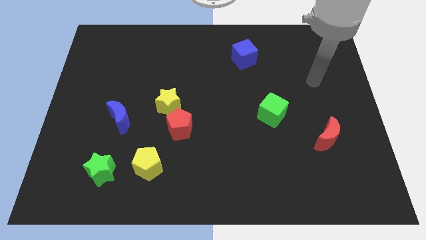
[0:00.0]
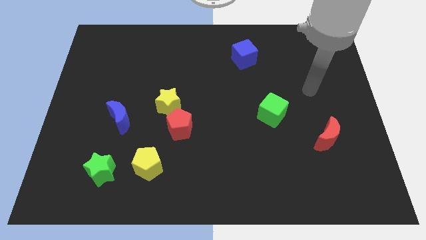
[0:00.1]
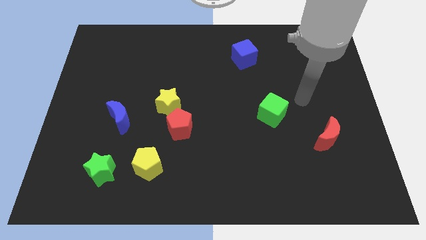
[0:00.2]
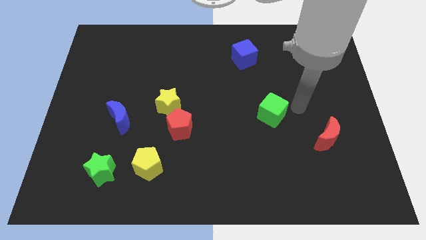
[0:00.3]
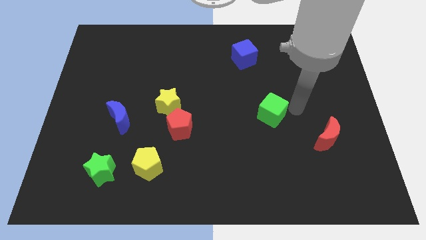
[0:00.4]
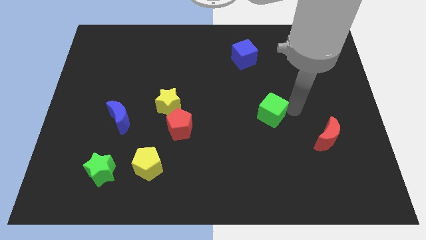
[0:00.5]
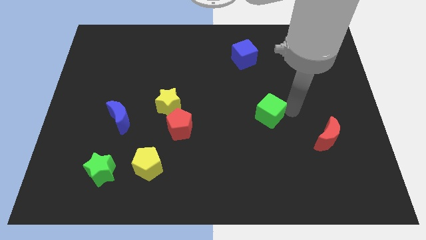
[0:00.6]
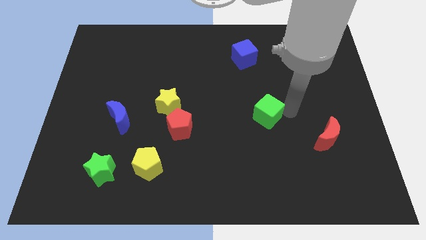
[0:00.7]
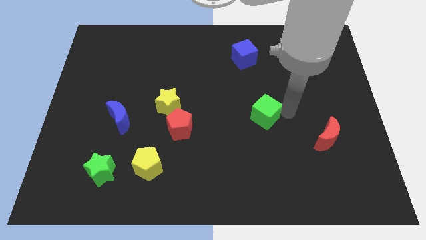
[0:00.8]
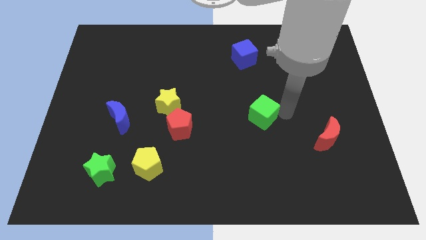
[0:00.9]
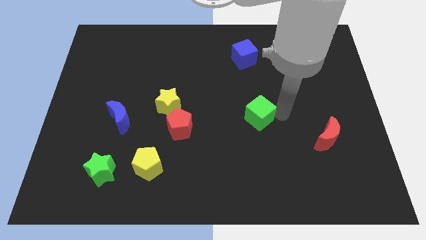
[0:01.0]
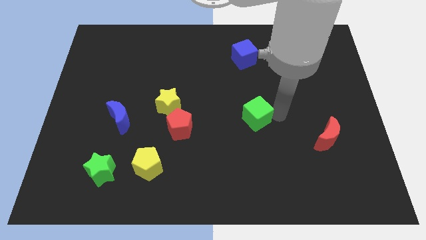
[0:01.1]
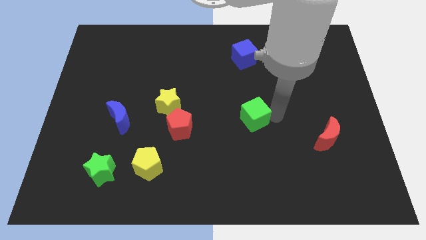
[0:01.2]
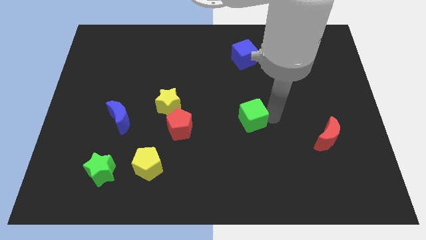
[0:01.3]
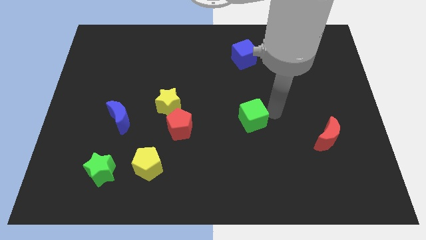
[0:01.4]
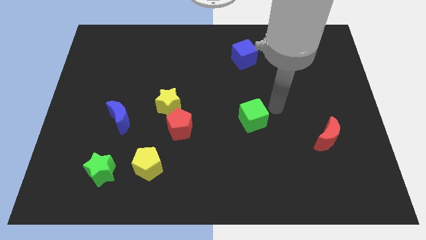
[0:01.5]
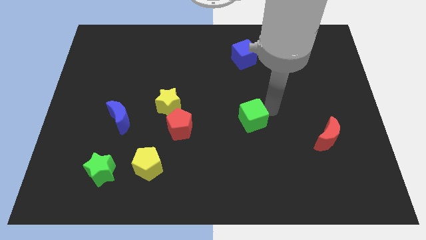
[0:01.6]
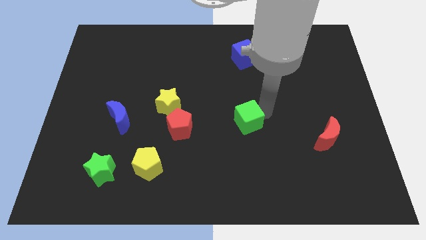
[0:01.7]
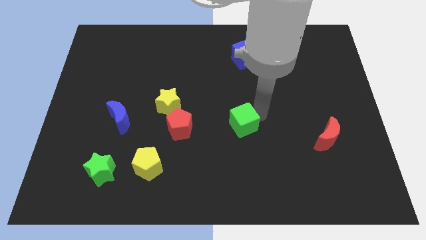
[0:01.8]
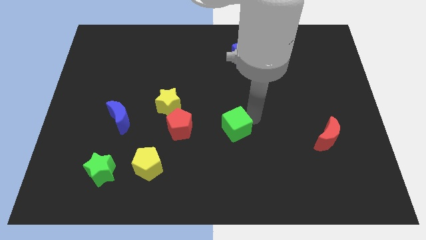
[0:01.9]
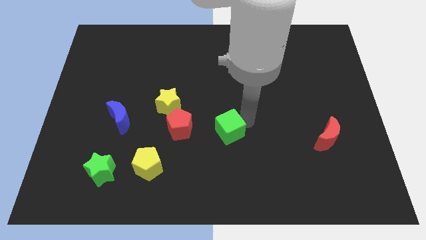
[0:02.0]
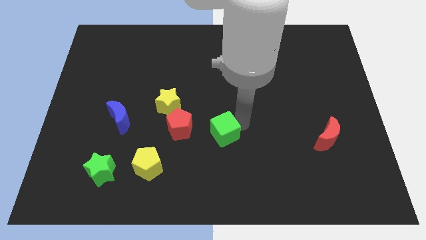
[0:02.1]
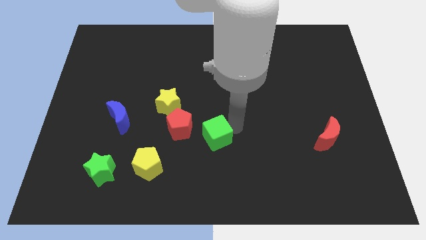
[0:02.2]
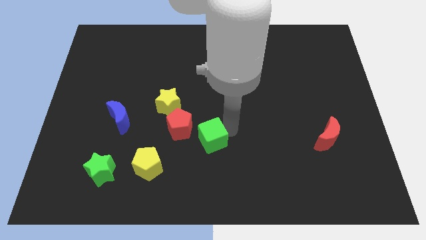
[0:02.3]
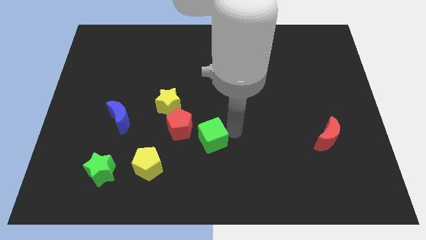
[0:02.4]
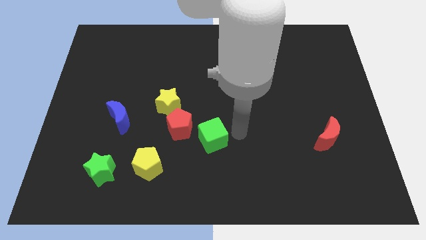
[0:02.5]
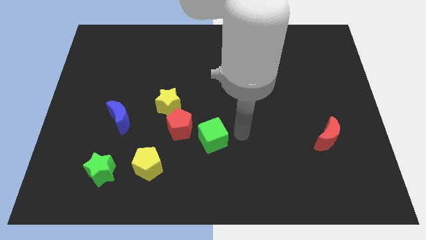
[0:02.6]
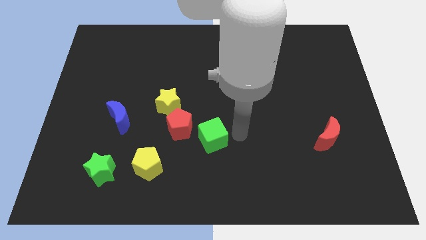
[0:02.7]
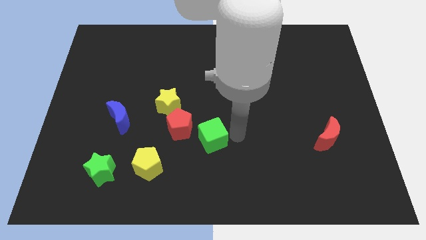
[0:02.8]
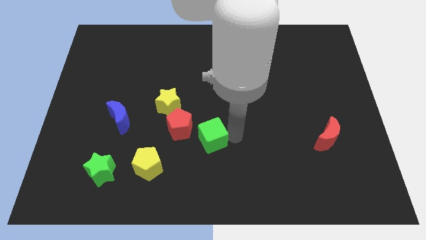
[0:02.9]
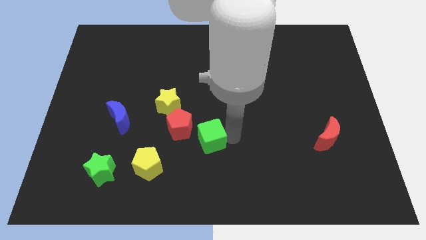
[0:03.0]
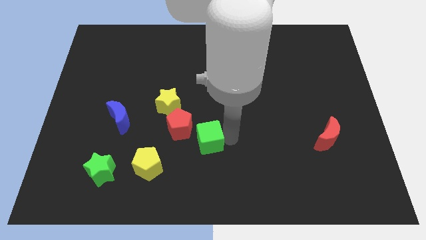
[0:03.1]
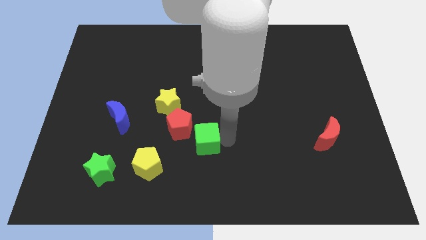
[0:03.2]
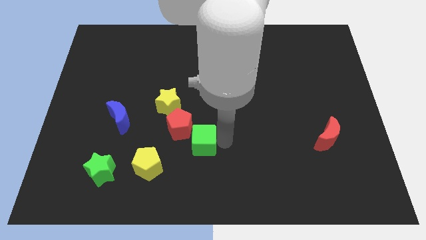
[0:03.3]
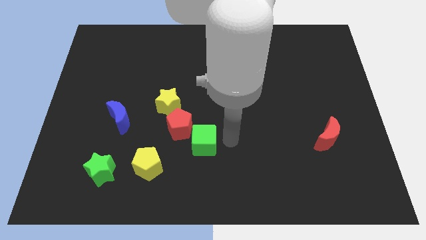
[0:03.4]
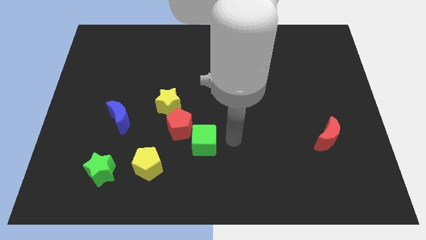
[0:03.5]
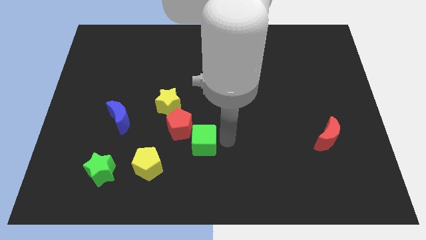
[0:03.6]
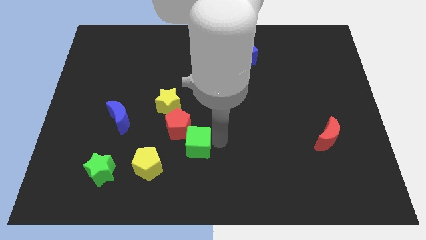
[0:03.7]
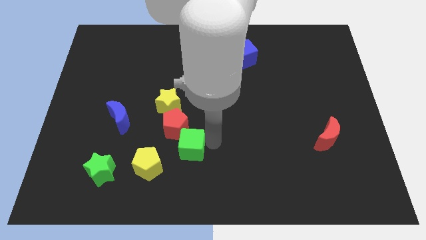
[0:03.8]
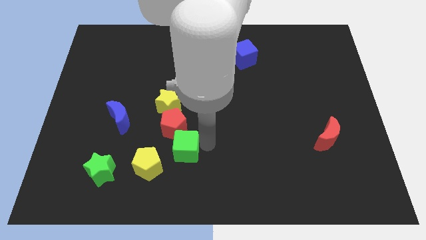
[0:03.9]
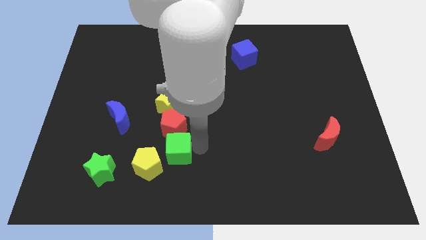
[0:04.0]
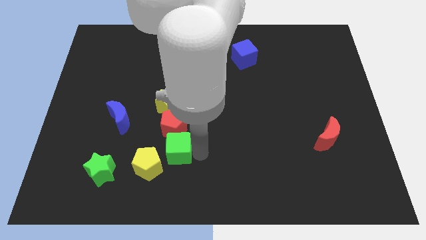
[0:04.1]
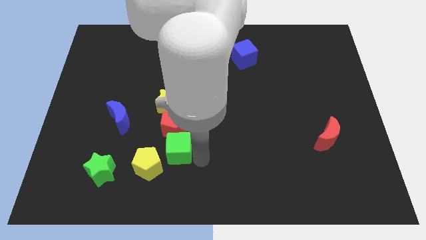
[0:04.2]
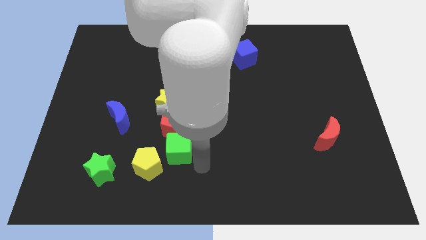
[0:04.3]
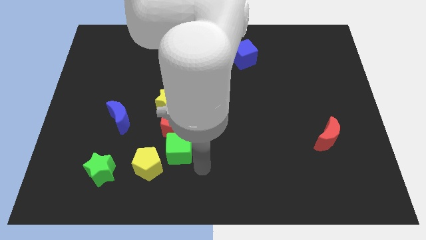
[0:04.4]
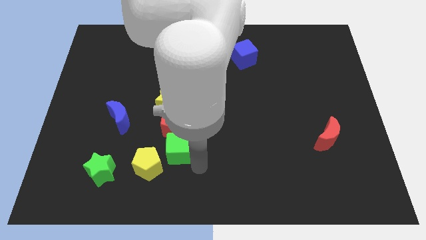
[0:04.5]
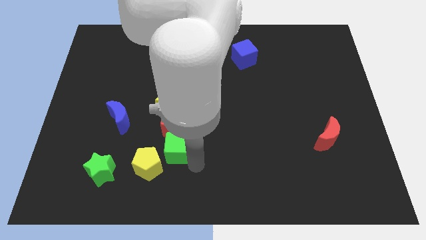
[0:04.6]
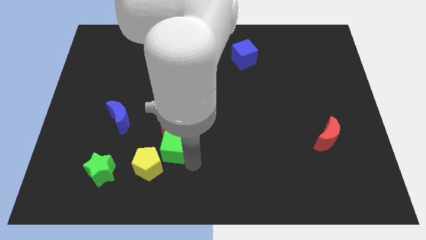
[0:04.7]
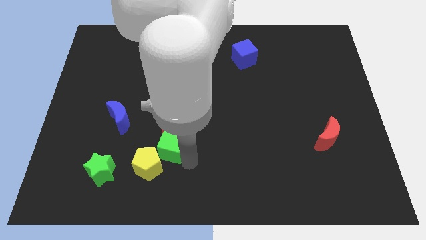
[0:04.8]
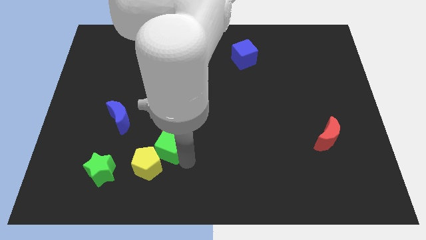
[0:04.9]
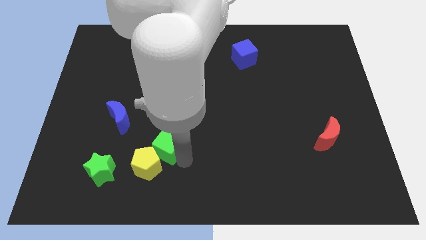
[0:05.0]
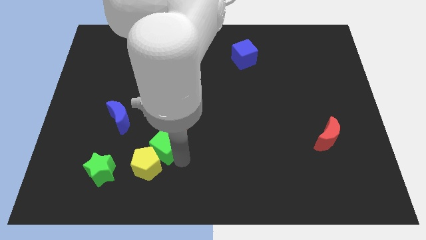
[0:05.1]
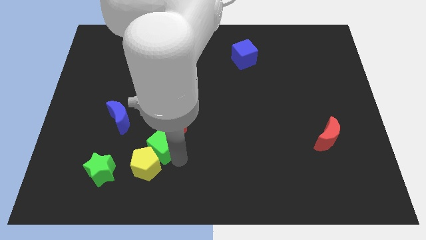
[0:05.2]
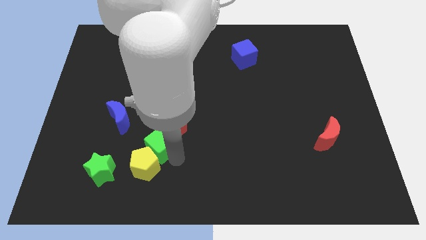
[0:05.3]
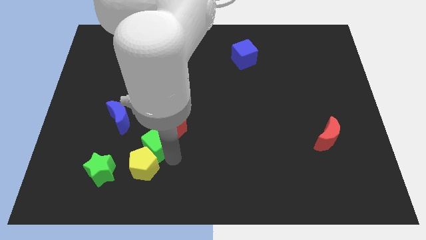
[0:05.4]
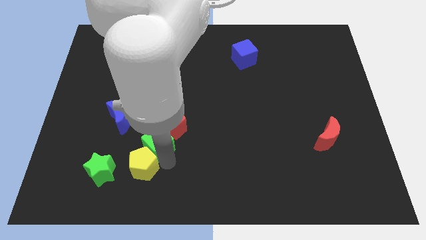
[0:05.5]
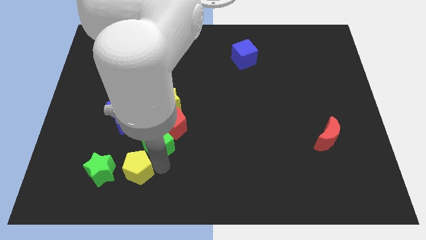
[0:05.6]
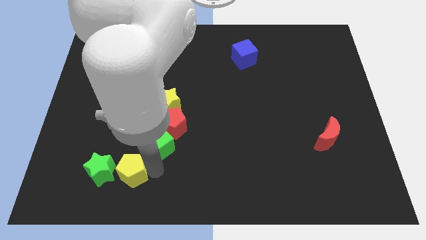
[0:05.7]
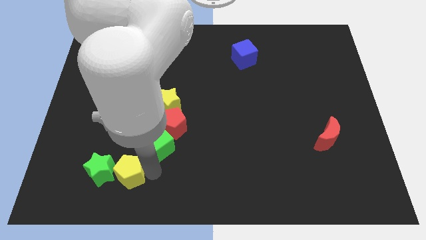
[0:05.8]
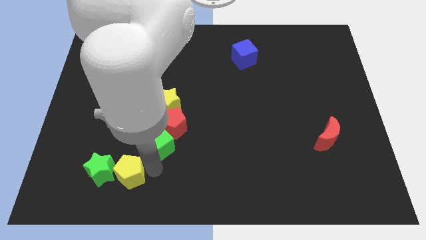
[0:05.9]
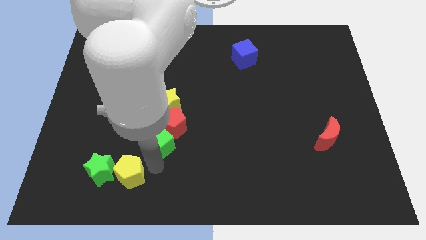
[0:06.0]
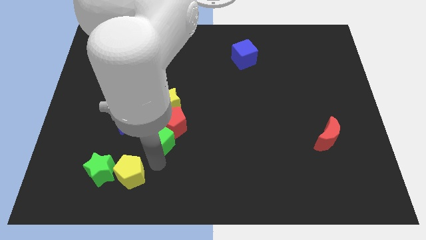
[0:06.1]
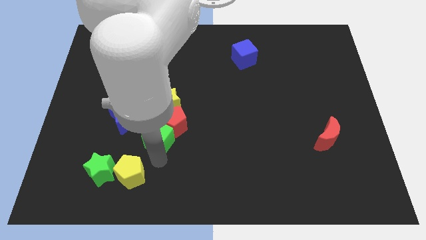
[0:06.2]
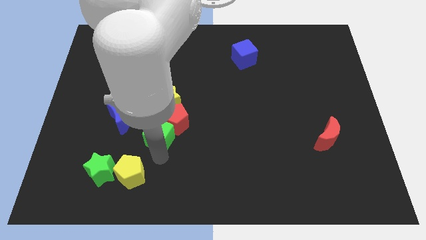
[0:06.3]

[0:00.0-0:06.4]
move the green cube to the right of the blue moon

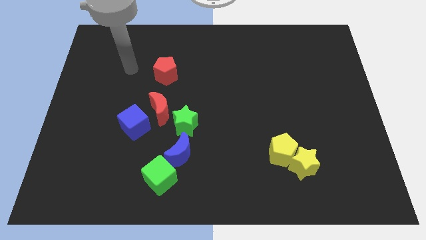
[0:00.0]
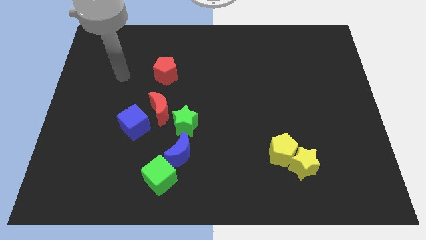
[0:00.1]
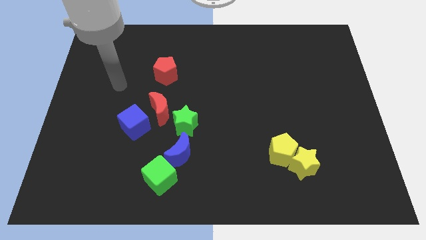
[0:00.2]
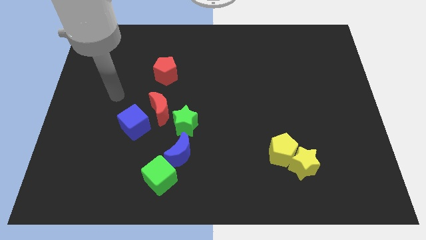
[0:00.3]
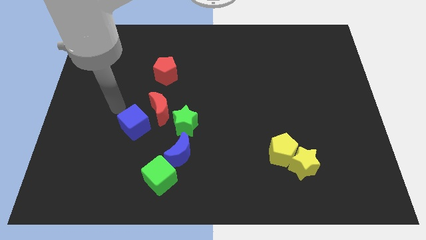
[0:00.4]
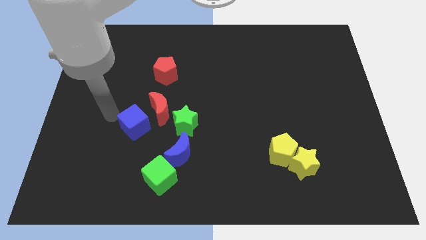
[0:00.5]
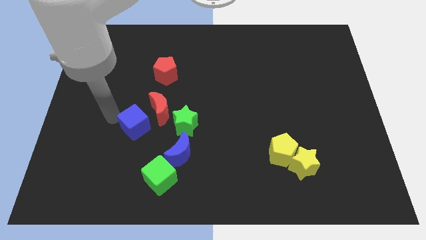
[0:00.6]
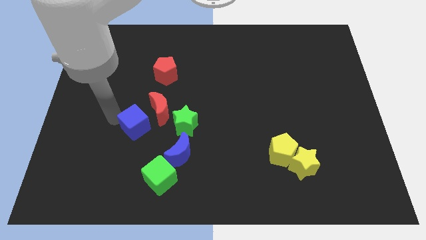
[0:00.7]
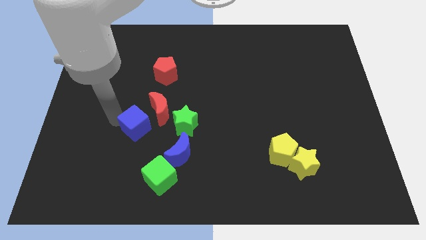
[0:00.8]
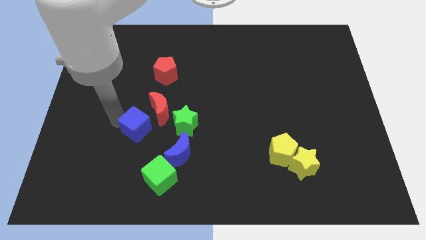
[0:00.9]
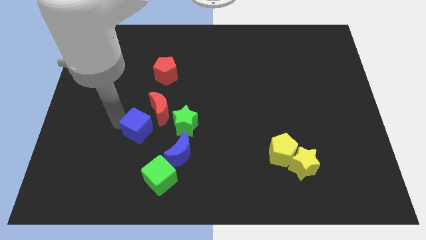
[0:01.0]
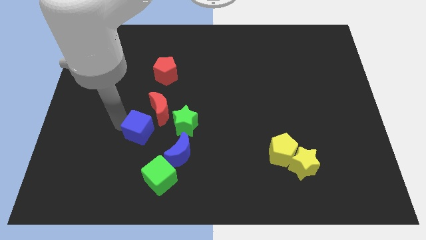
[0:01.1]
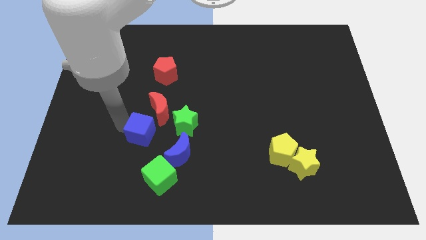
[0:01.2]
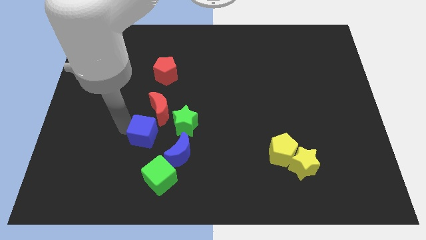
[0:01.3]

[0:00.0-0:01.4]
push the blue cube above the green cube
